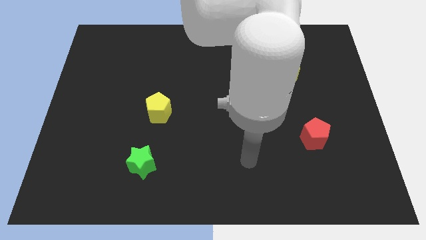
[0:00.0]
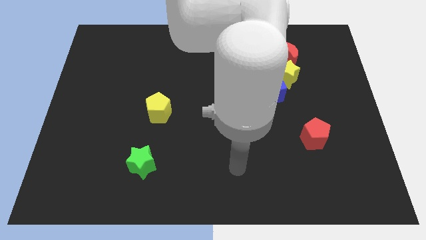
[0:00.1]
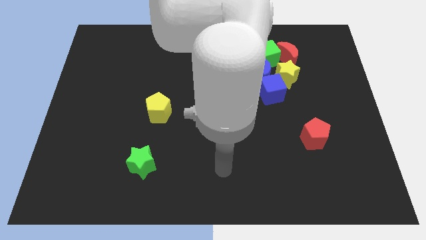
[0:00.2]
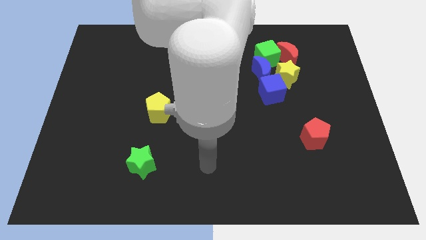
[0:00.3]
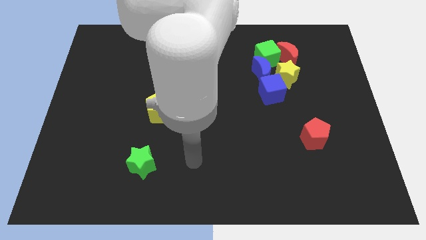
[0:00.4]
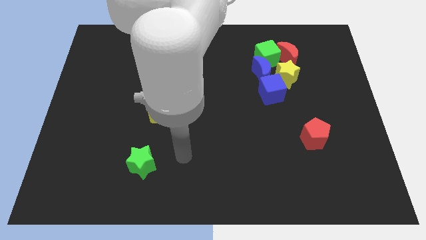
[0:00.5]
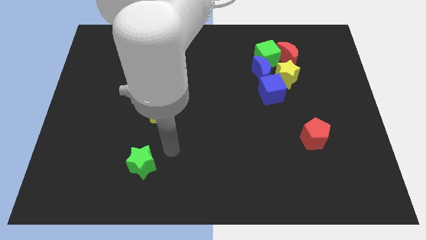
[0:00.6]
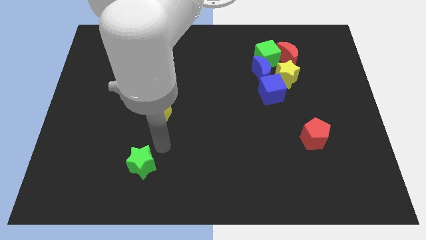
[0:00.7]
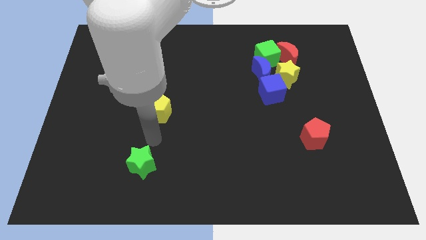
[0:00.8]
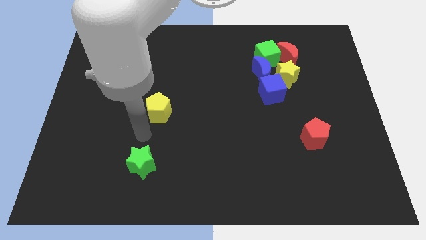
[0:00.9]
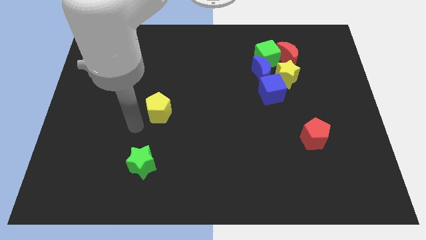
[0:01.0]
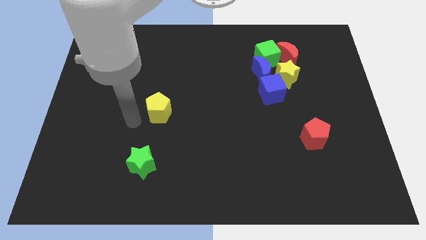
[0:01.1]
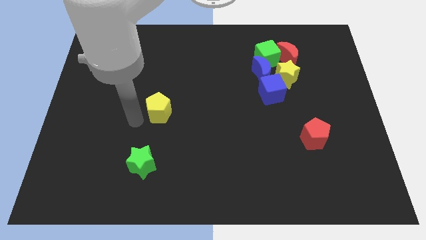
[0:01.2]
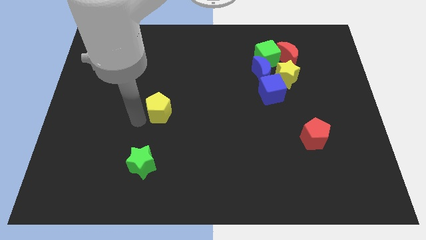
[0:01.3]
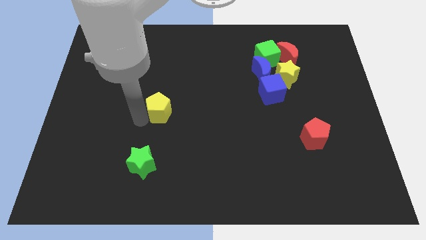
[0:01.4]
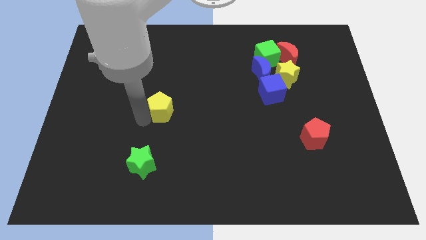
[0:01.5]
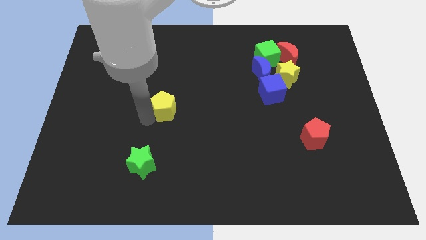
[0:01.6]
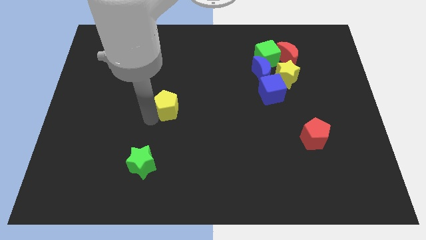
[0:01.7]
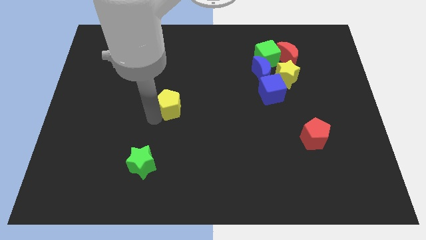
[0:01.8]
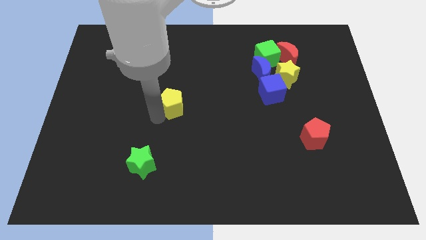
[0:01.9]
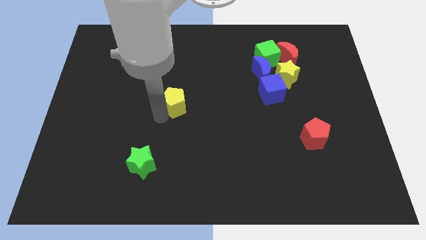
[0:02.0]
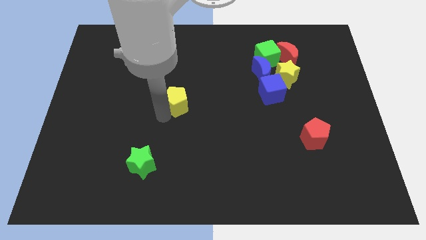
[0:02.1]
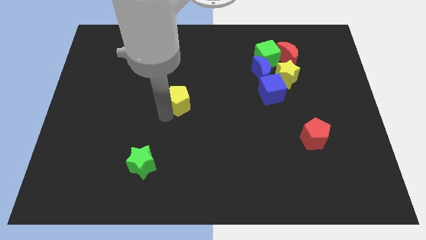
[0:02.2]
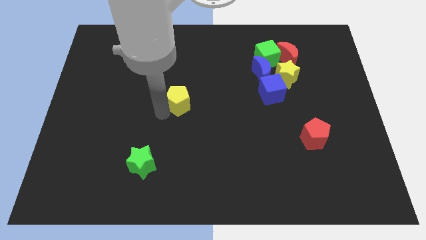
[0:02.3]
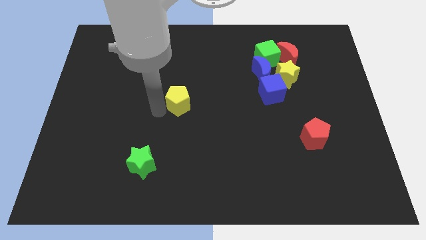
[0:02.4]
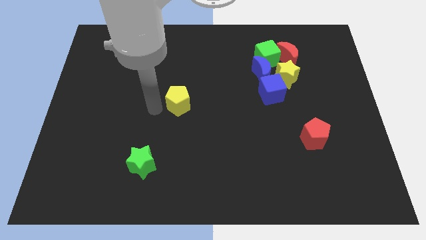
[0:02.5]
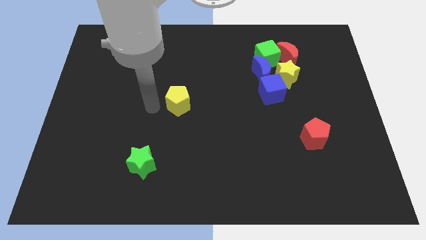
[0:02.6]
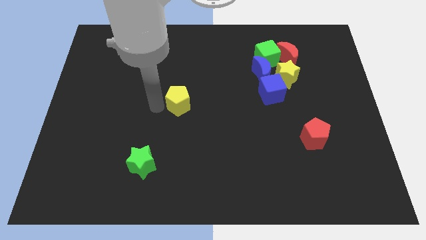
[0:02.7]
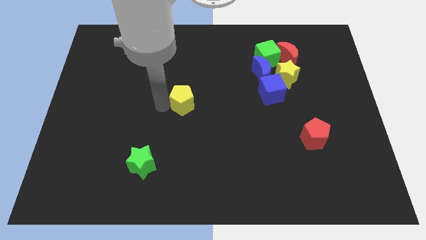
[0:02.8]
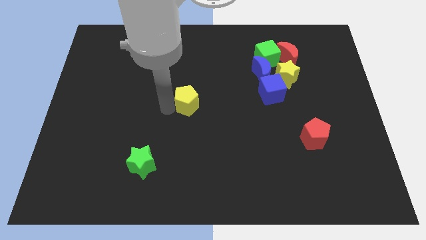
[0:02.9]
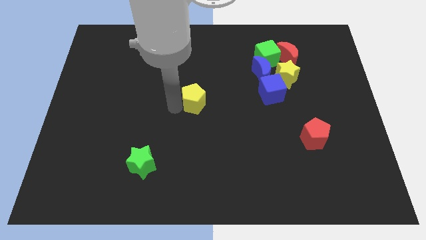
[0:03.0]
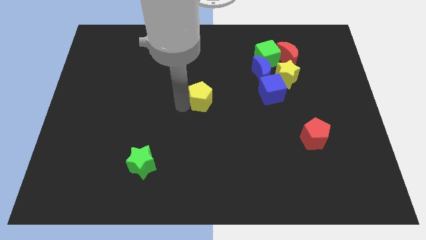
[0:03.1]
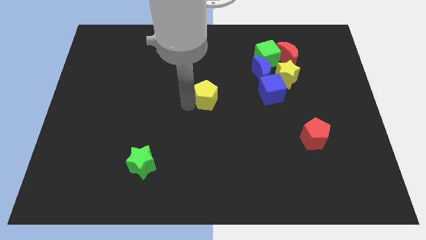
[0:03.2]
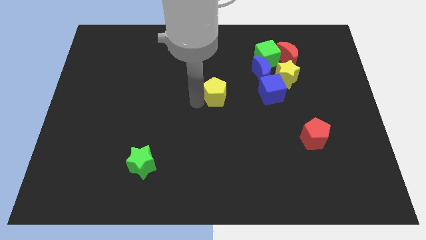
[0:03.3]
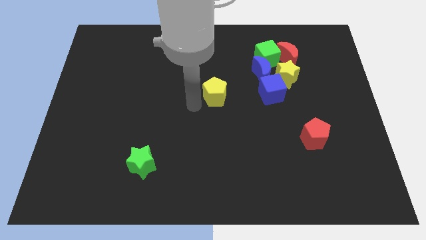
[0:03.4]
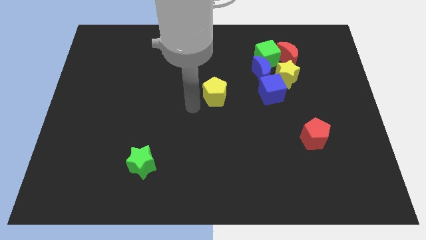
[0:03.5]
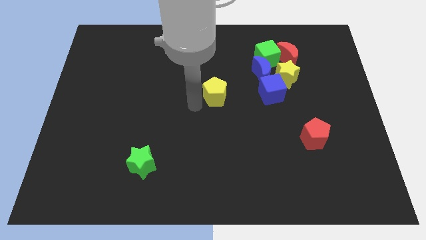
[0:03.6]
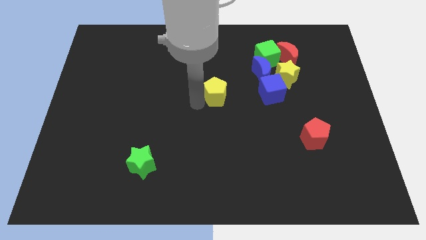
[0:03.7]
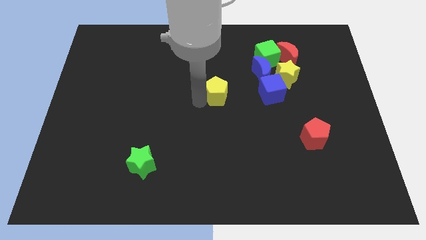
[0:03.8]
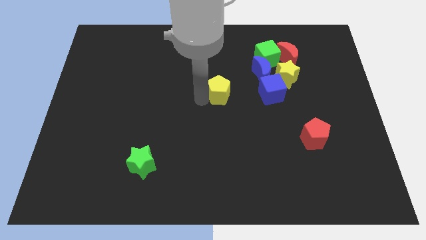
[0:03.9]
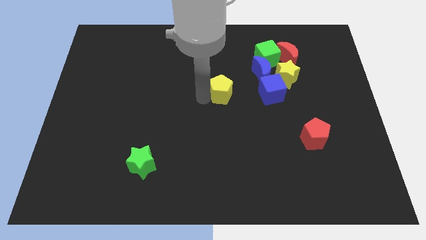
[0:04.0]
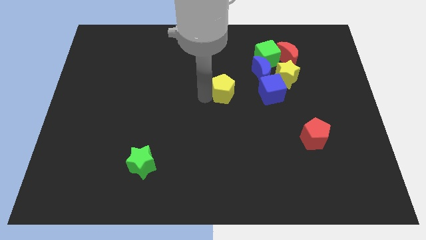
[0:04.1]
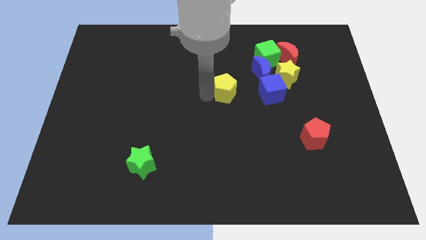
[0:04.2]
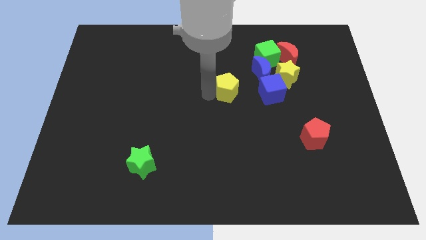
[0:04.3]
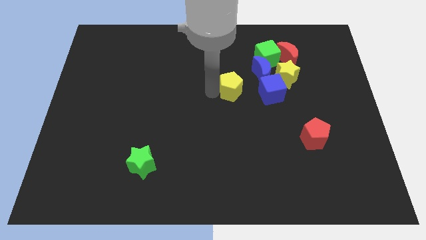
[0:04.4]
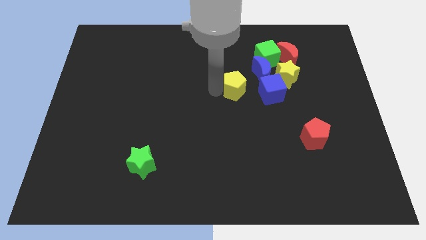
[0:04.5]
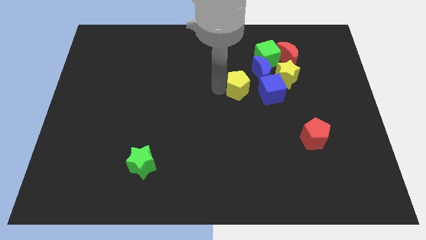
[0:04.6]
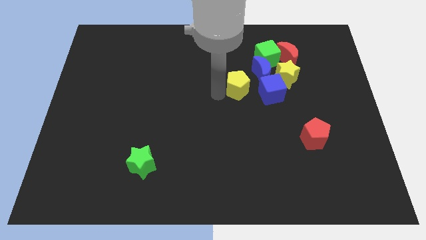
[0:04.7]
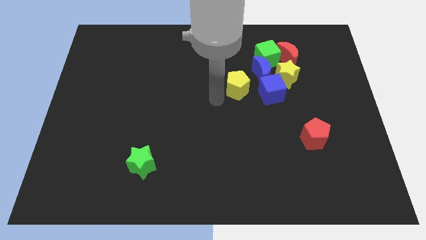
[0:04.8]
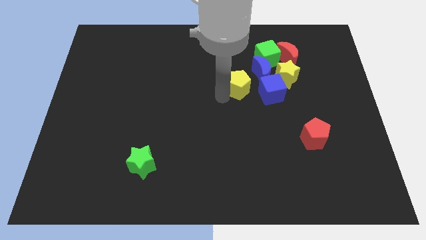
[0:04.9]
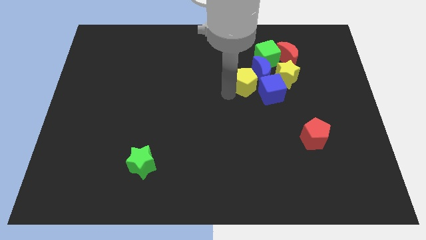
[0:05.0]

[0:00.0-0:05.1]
slide the yellow pentagon next to the blue moon

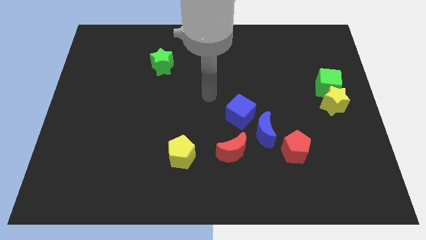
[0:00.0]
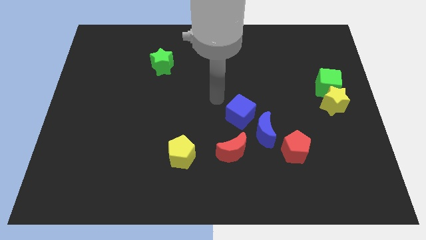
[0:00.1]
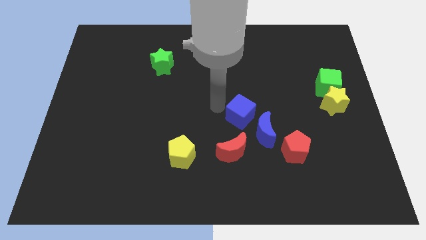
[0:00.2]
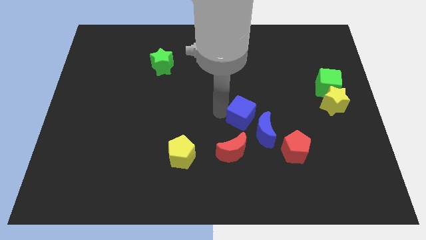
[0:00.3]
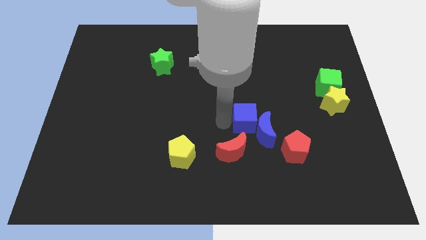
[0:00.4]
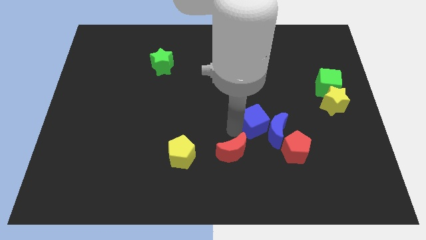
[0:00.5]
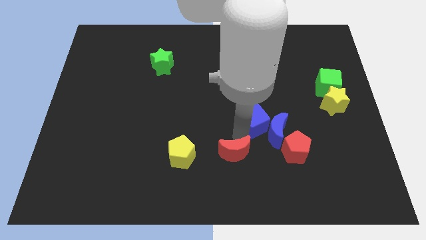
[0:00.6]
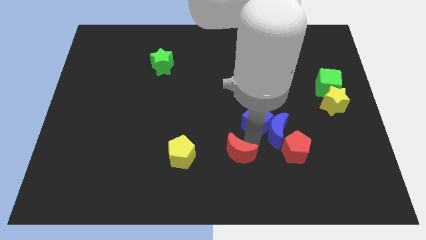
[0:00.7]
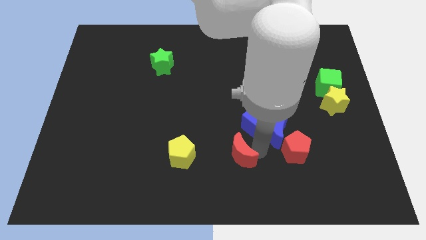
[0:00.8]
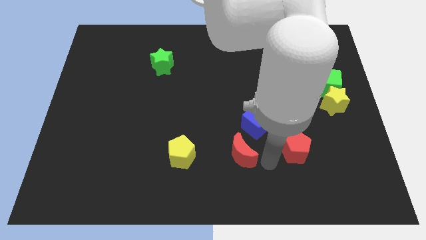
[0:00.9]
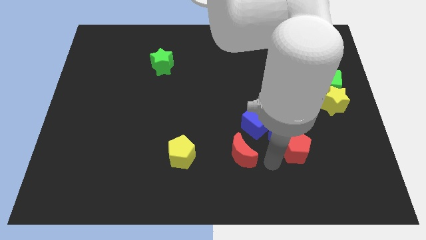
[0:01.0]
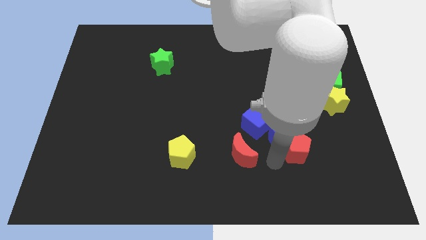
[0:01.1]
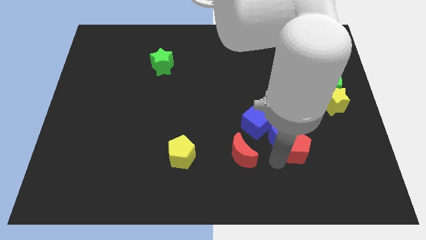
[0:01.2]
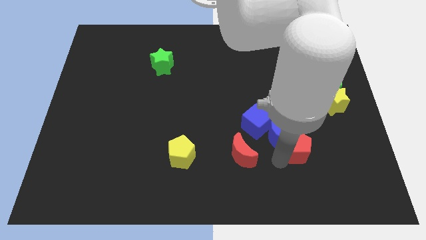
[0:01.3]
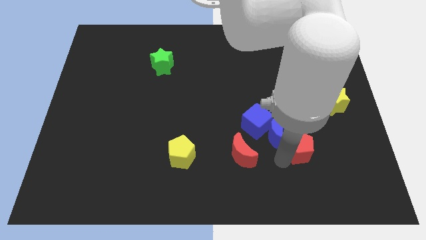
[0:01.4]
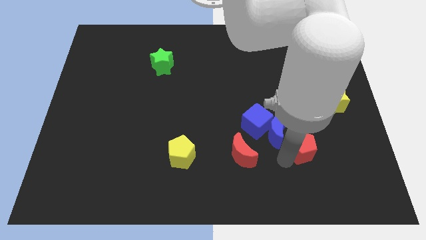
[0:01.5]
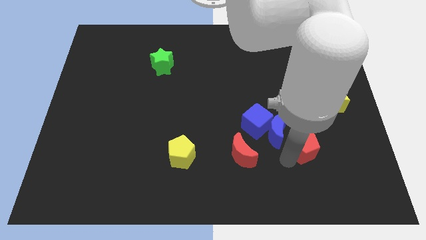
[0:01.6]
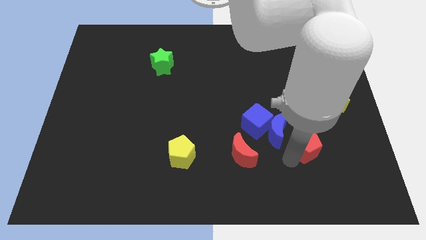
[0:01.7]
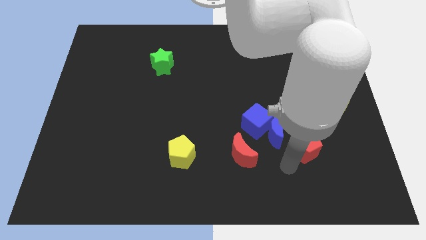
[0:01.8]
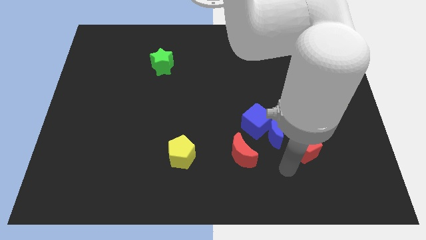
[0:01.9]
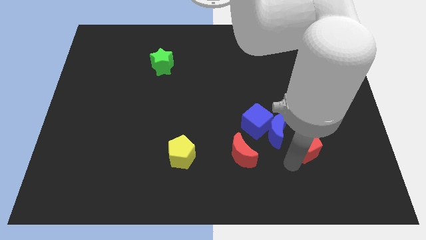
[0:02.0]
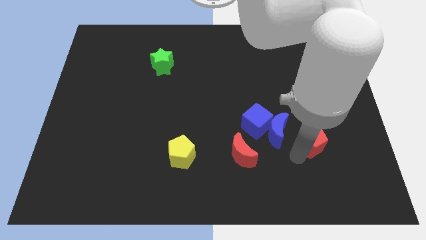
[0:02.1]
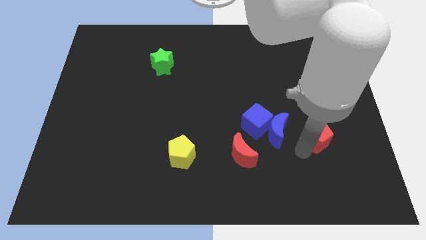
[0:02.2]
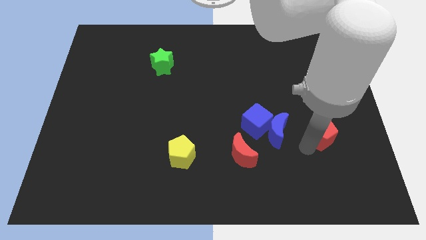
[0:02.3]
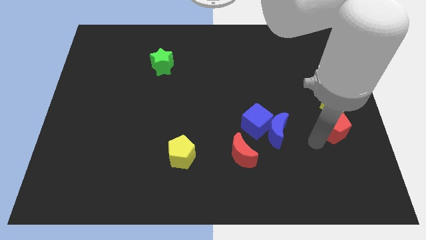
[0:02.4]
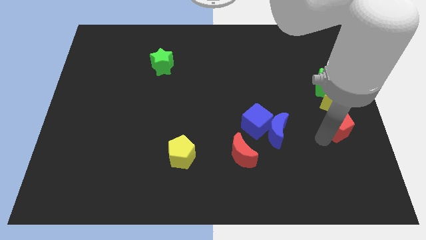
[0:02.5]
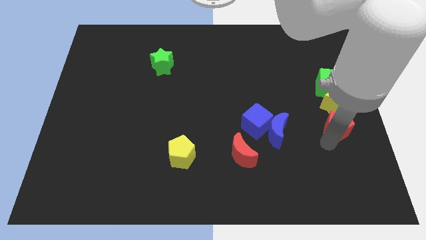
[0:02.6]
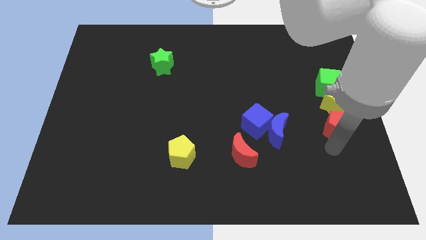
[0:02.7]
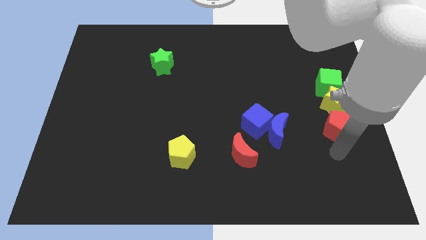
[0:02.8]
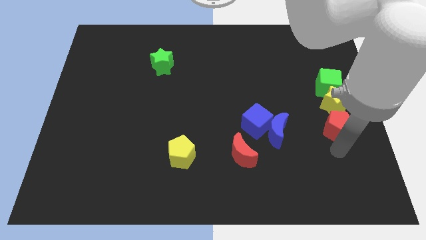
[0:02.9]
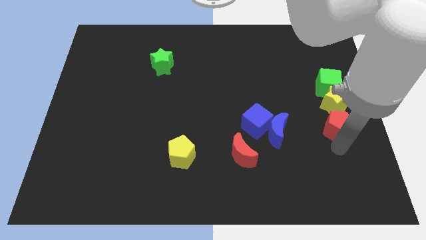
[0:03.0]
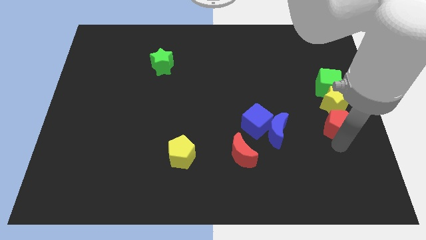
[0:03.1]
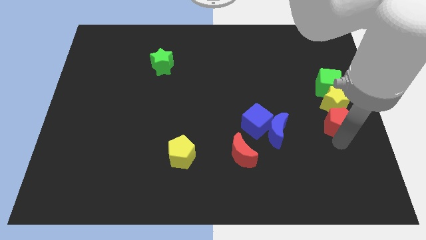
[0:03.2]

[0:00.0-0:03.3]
push the red pentagon next to the yellow star
